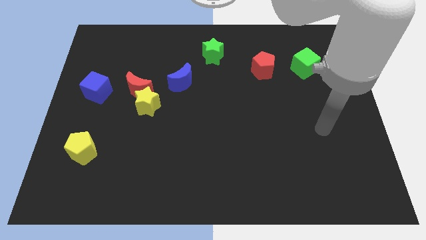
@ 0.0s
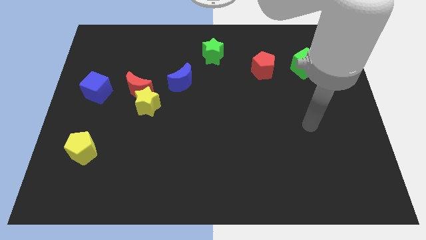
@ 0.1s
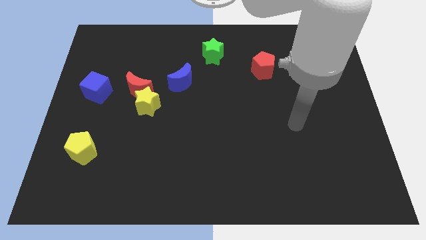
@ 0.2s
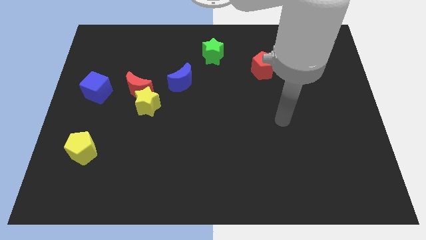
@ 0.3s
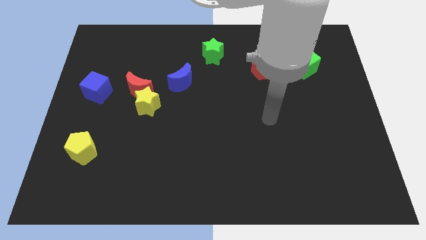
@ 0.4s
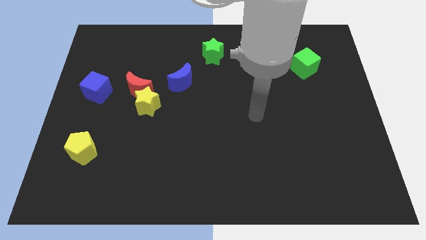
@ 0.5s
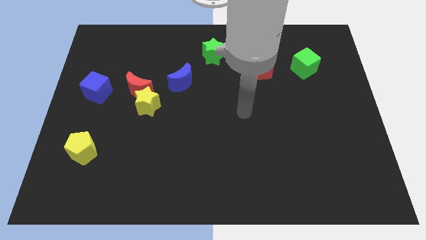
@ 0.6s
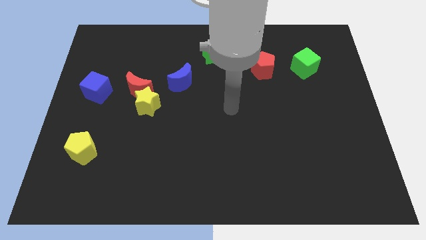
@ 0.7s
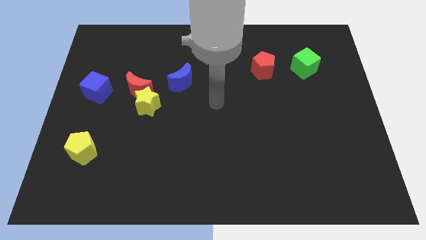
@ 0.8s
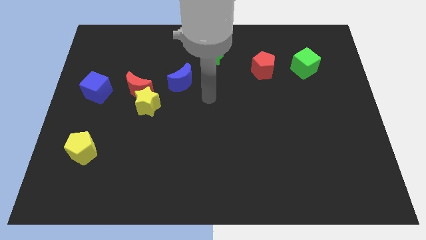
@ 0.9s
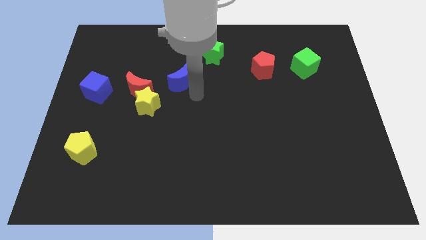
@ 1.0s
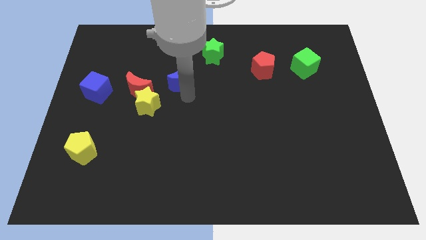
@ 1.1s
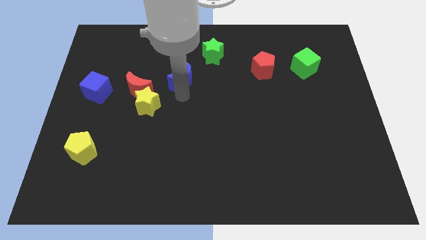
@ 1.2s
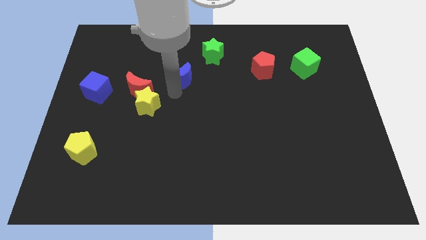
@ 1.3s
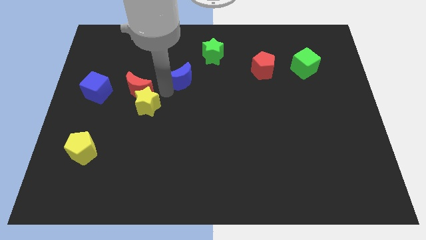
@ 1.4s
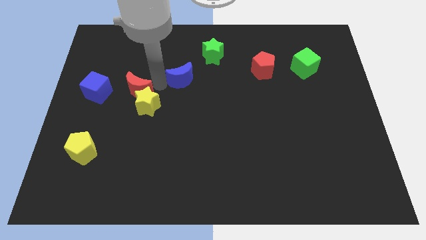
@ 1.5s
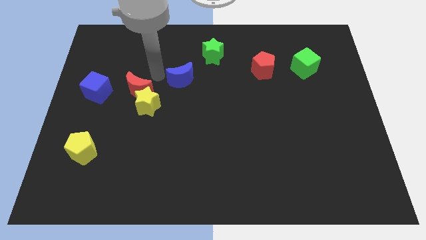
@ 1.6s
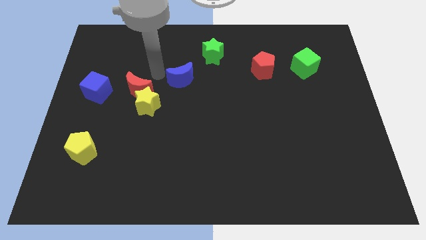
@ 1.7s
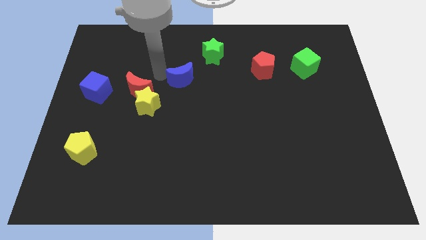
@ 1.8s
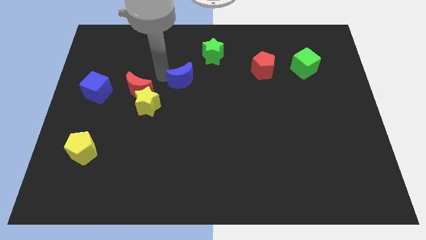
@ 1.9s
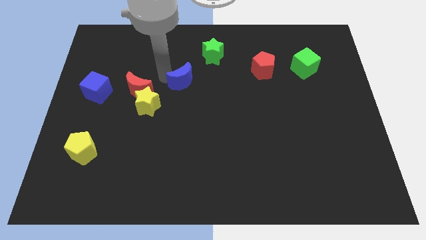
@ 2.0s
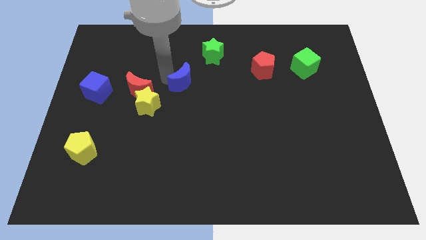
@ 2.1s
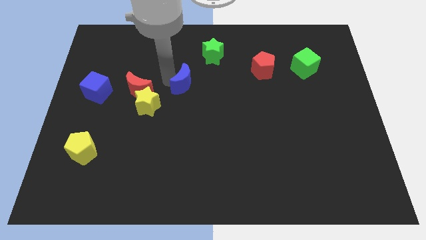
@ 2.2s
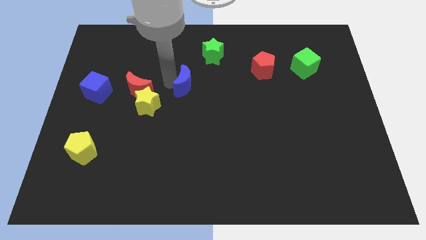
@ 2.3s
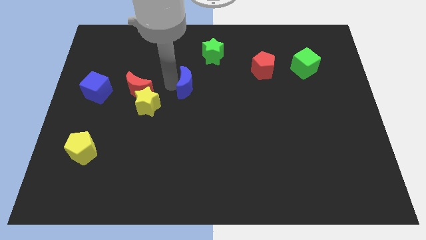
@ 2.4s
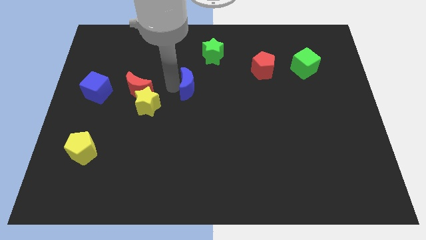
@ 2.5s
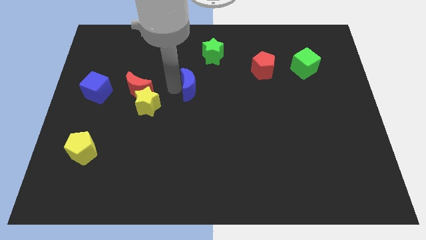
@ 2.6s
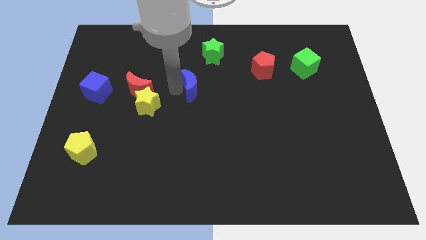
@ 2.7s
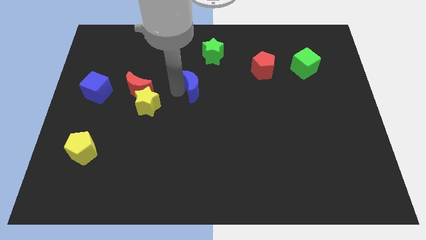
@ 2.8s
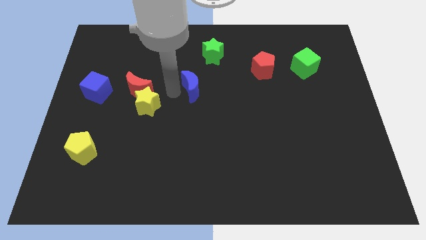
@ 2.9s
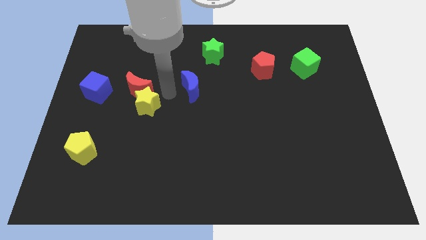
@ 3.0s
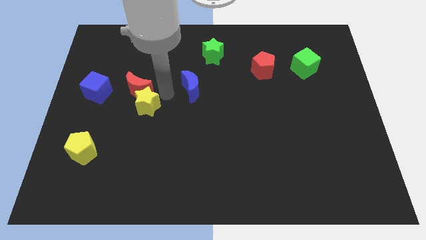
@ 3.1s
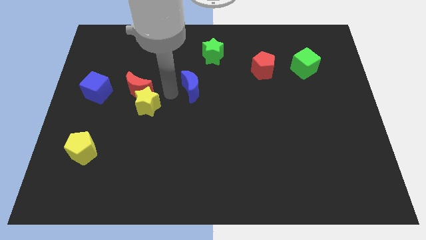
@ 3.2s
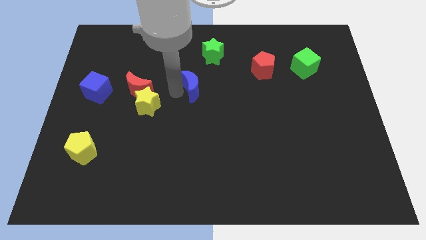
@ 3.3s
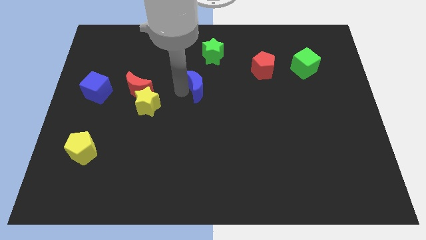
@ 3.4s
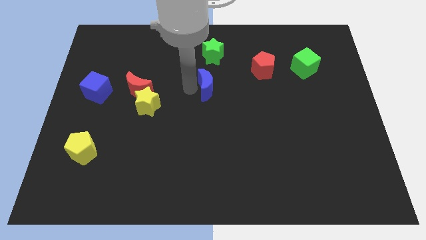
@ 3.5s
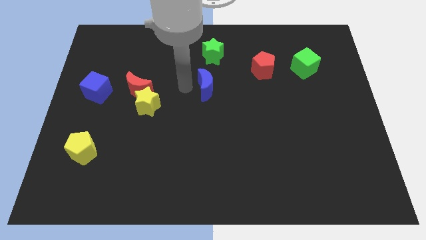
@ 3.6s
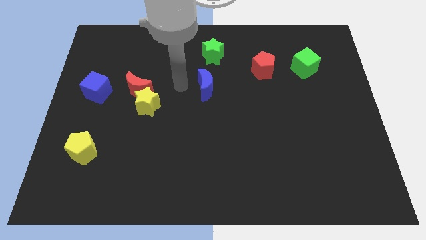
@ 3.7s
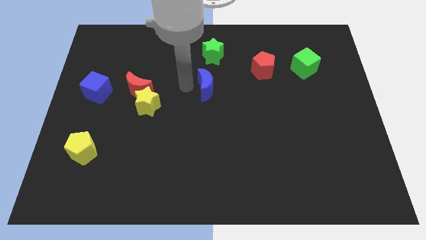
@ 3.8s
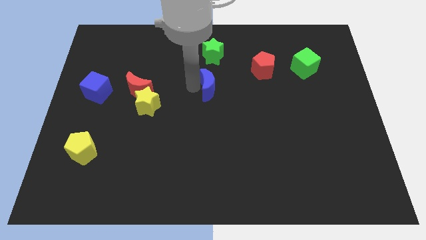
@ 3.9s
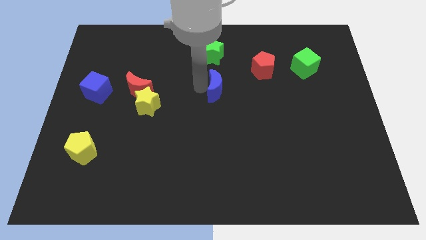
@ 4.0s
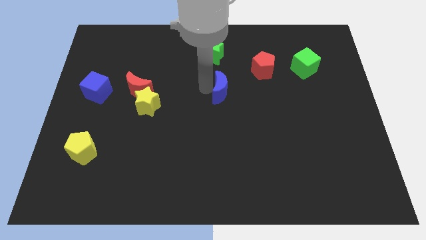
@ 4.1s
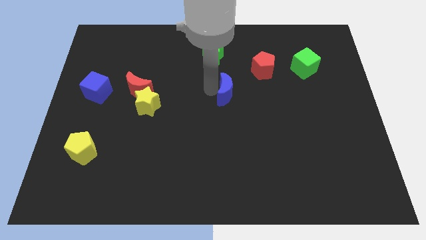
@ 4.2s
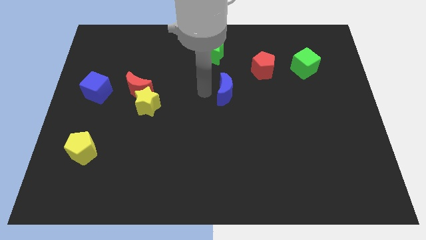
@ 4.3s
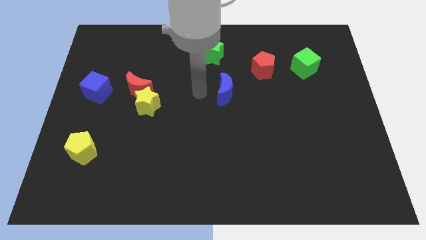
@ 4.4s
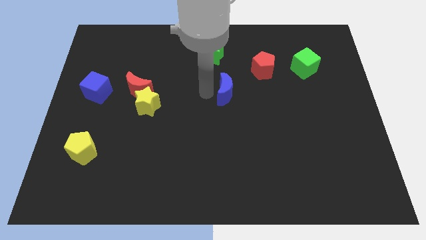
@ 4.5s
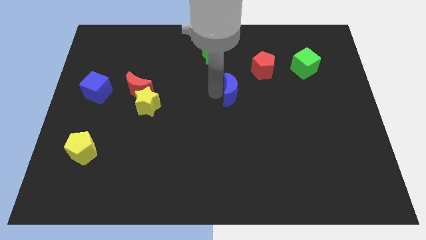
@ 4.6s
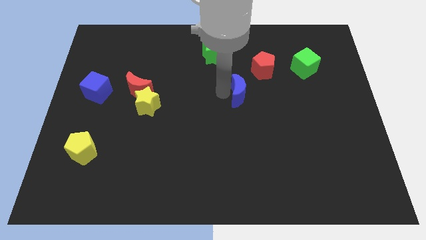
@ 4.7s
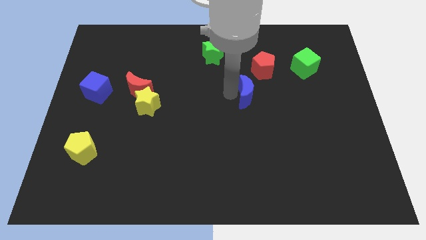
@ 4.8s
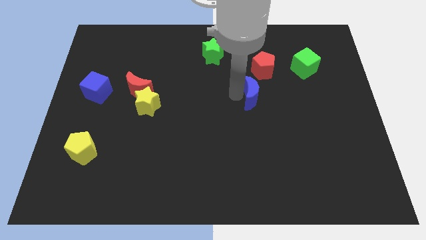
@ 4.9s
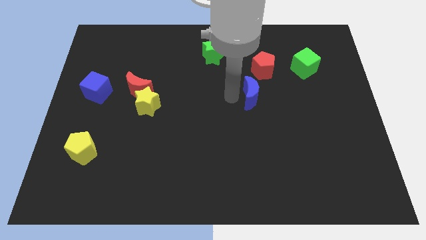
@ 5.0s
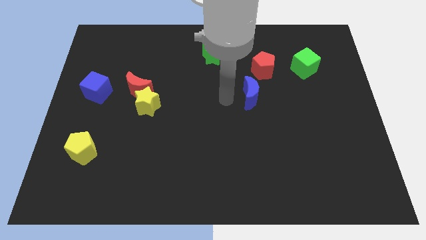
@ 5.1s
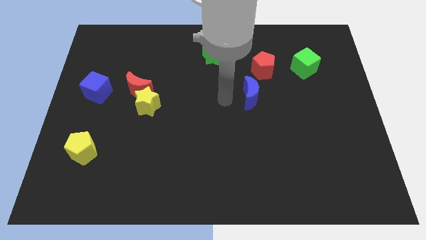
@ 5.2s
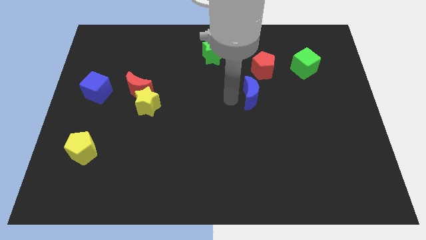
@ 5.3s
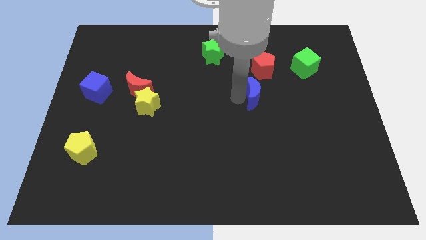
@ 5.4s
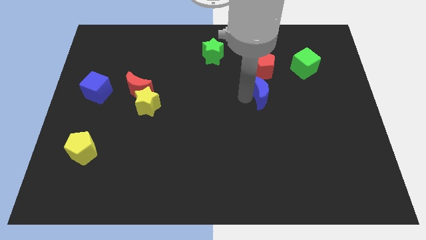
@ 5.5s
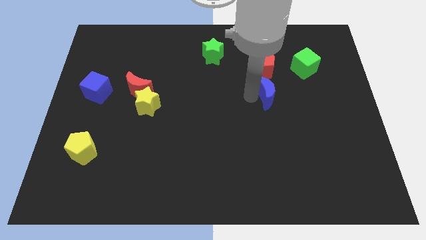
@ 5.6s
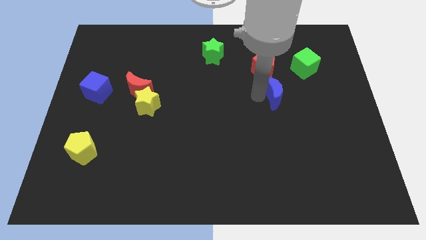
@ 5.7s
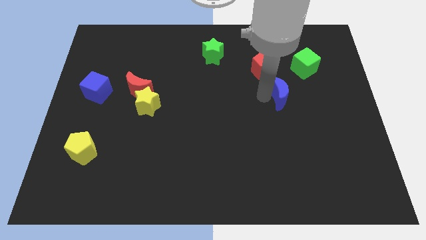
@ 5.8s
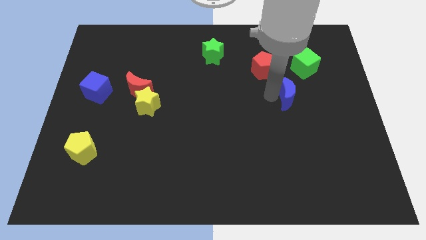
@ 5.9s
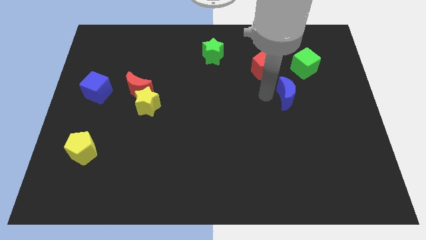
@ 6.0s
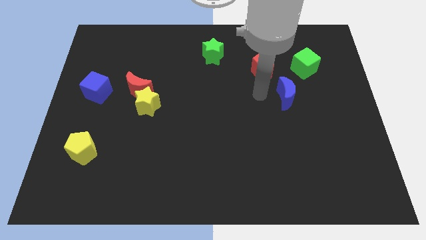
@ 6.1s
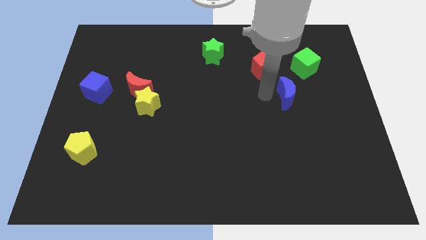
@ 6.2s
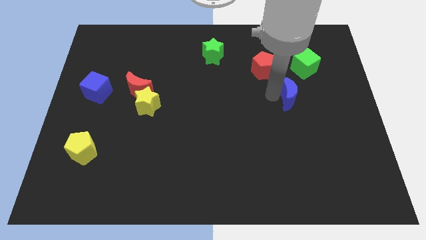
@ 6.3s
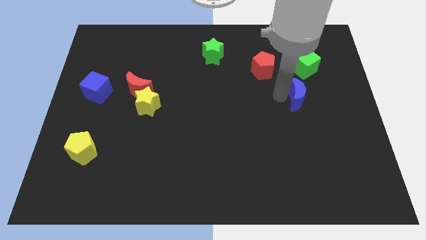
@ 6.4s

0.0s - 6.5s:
put the blue moon to the bottom of the green cube
